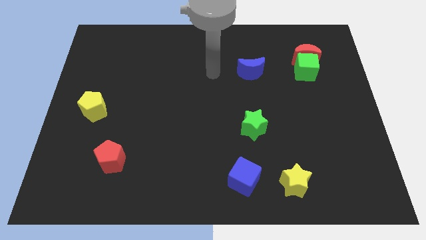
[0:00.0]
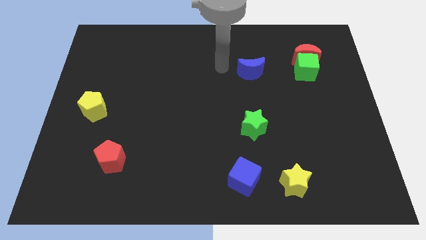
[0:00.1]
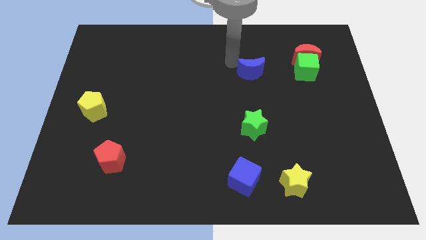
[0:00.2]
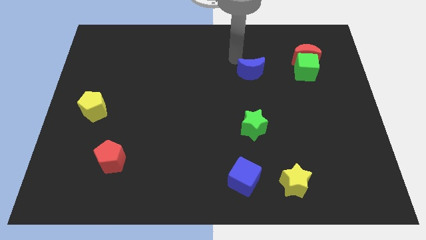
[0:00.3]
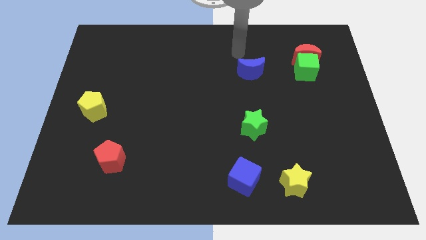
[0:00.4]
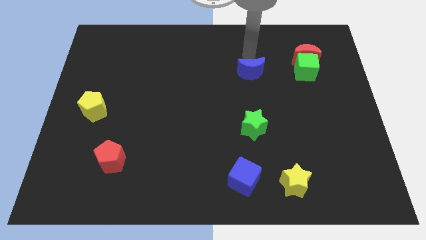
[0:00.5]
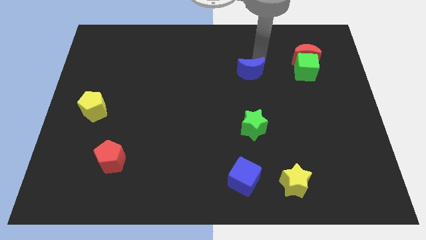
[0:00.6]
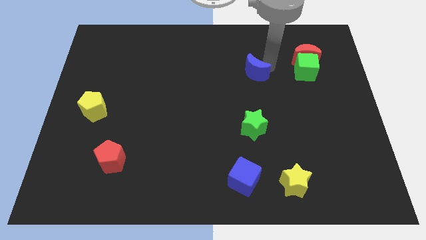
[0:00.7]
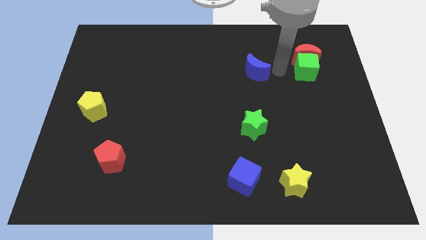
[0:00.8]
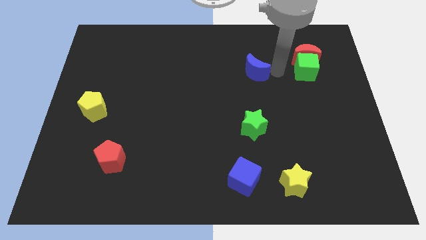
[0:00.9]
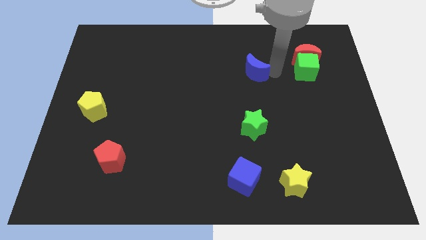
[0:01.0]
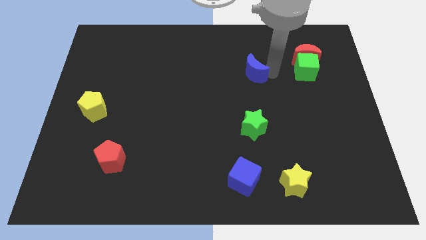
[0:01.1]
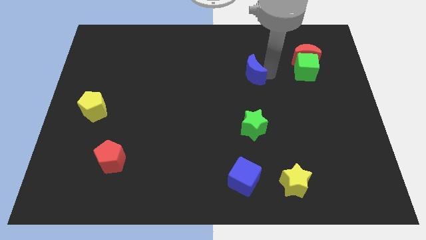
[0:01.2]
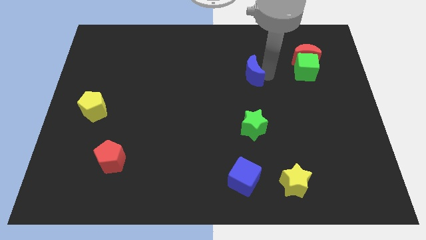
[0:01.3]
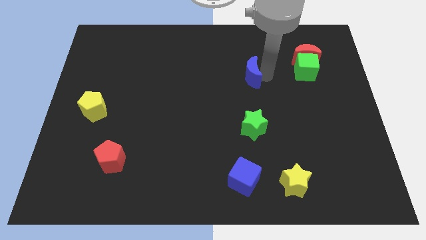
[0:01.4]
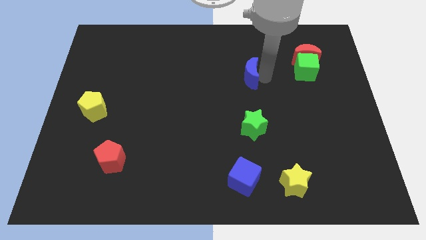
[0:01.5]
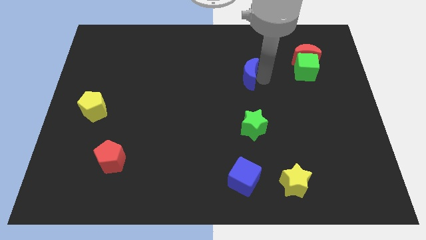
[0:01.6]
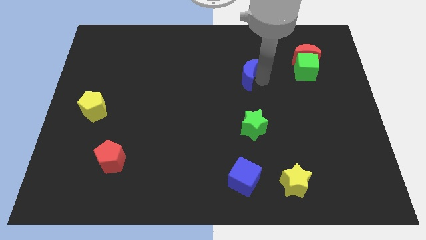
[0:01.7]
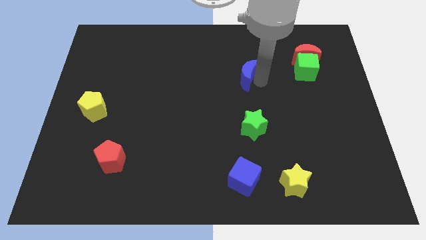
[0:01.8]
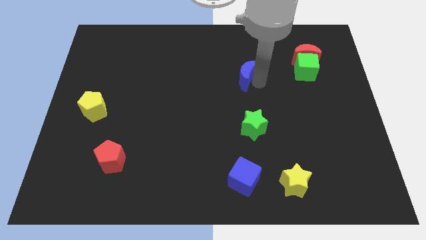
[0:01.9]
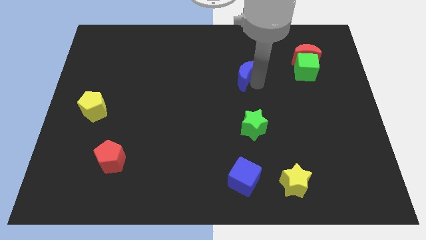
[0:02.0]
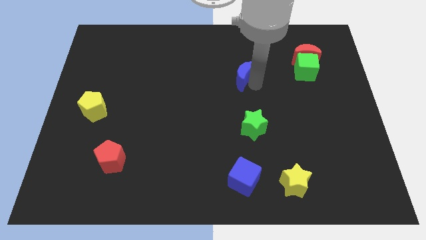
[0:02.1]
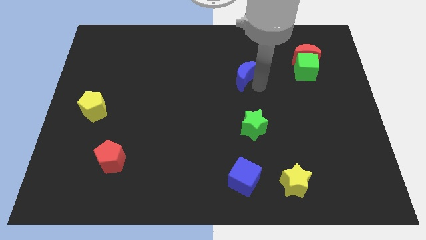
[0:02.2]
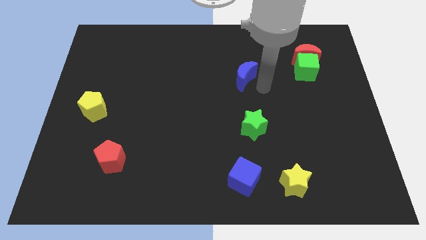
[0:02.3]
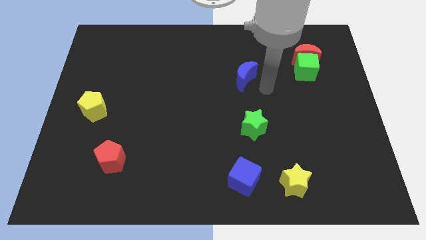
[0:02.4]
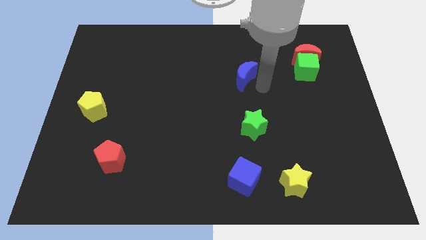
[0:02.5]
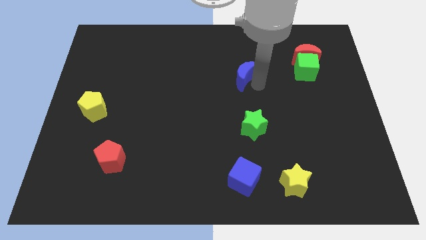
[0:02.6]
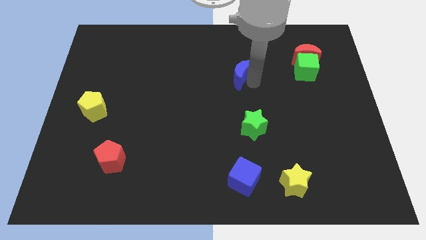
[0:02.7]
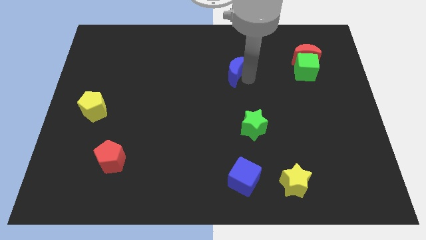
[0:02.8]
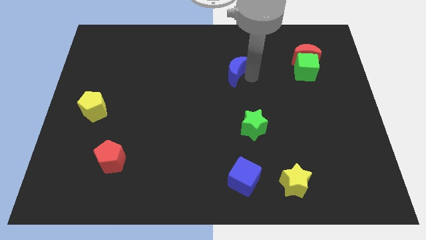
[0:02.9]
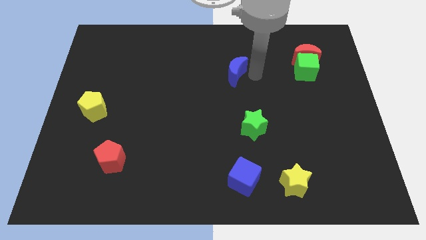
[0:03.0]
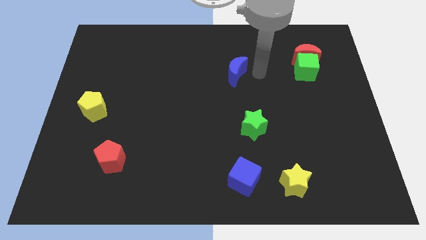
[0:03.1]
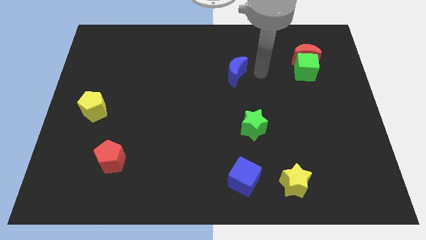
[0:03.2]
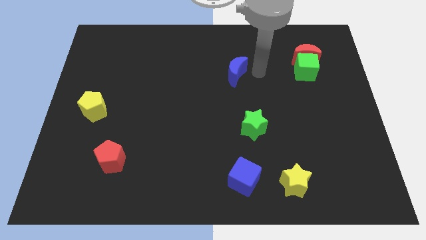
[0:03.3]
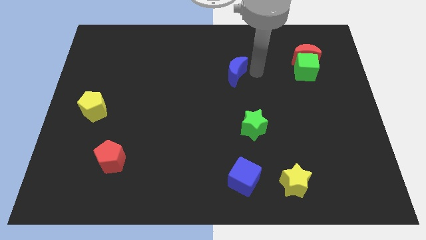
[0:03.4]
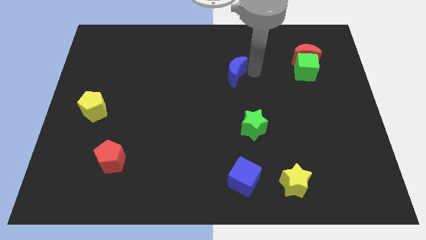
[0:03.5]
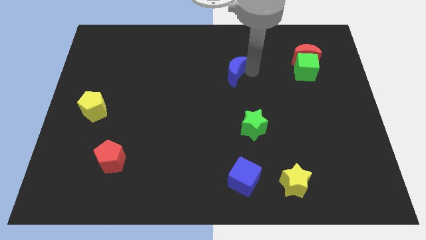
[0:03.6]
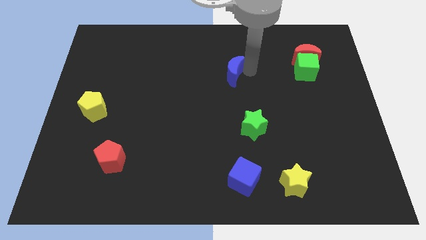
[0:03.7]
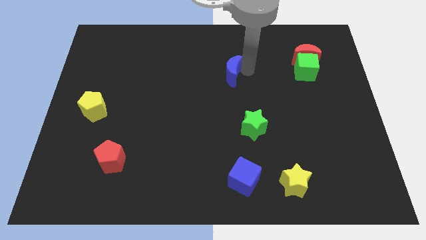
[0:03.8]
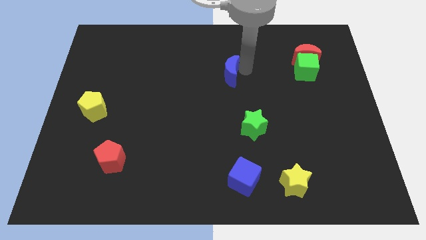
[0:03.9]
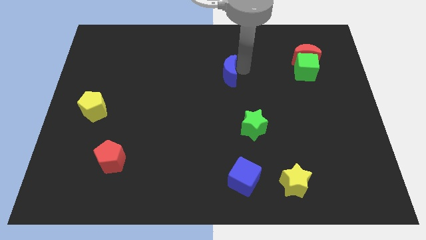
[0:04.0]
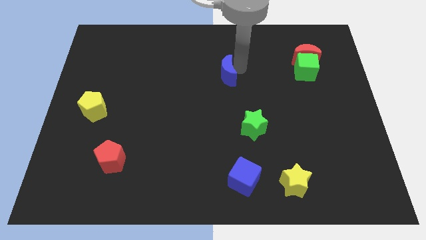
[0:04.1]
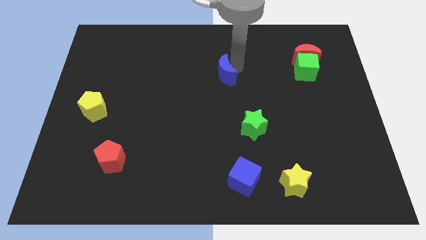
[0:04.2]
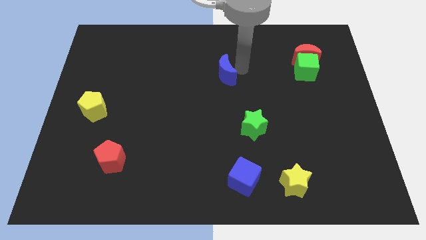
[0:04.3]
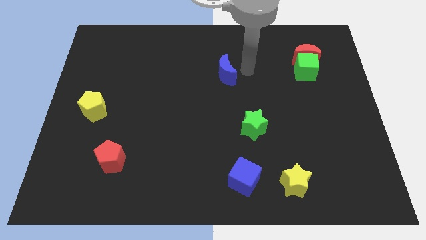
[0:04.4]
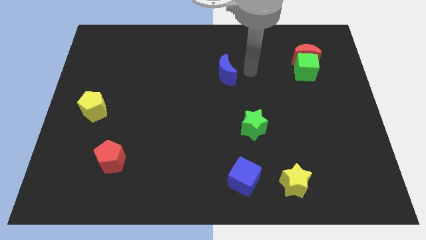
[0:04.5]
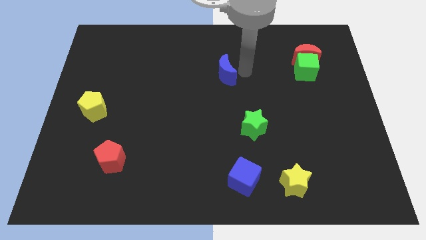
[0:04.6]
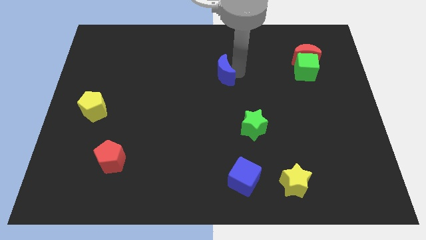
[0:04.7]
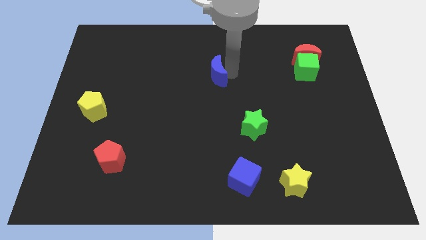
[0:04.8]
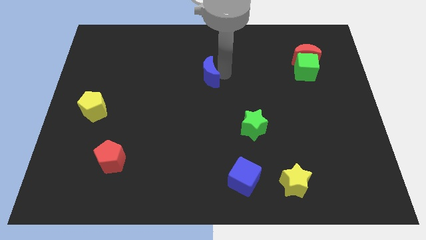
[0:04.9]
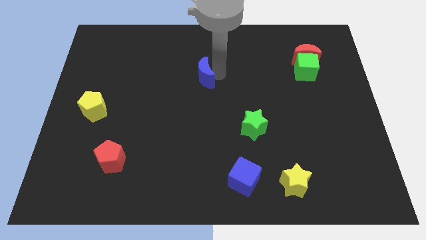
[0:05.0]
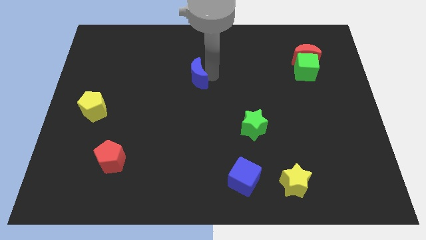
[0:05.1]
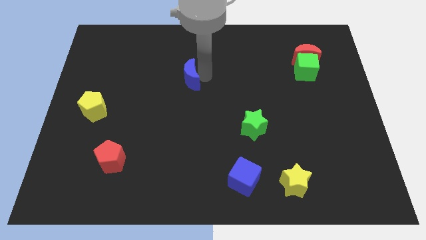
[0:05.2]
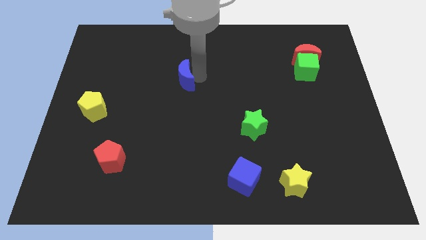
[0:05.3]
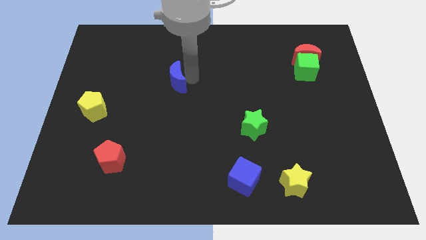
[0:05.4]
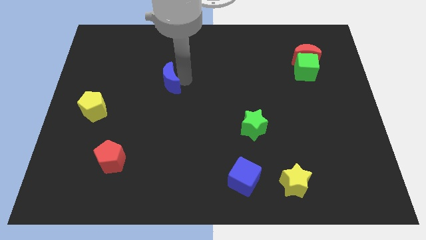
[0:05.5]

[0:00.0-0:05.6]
move the blue moon to the left

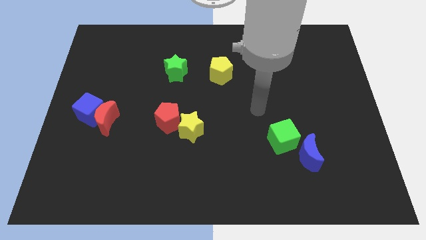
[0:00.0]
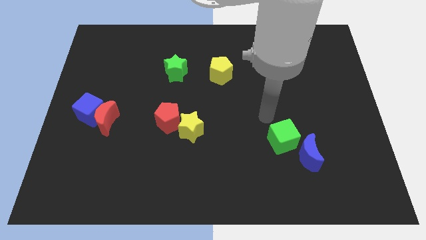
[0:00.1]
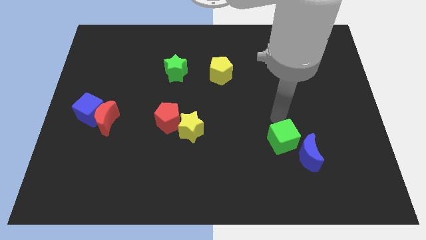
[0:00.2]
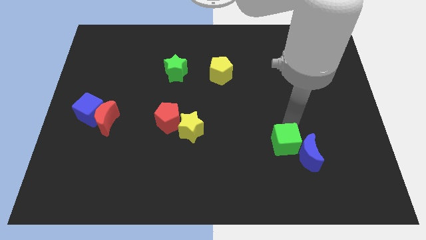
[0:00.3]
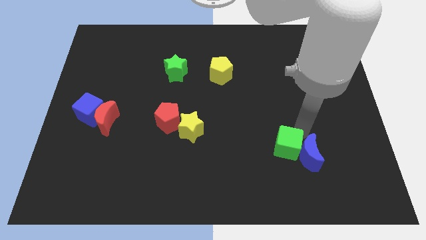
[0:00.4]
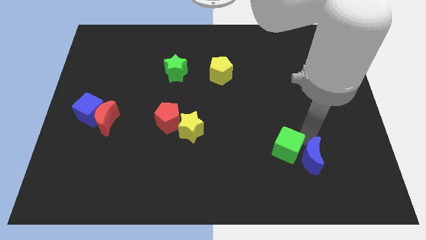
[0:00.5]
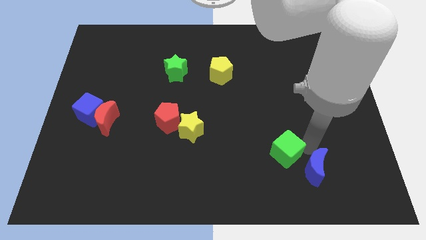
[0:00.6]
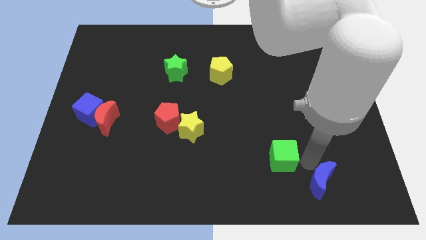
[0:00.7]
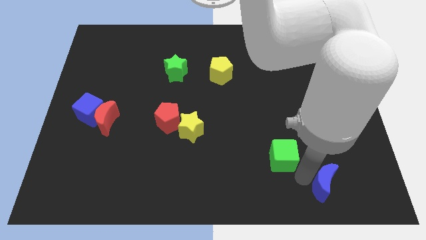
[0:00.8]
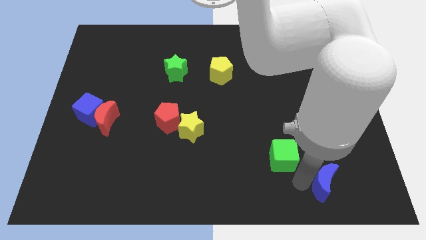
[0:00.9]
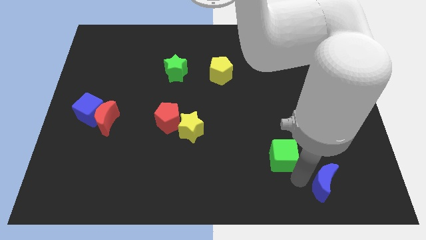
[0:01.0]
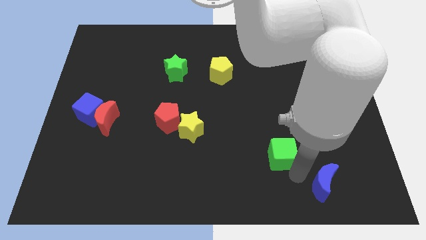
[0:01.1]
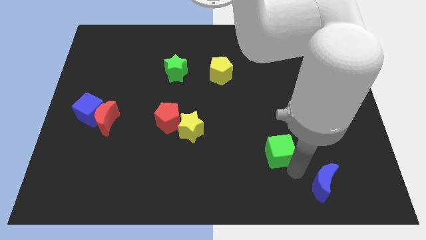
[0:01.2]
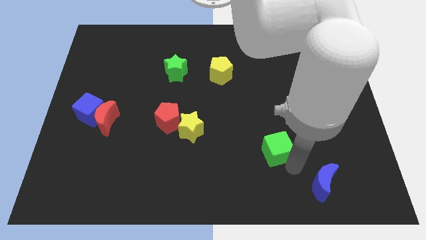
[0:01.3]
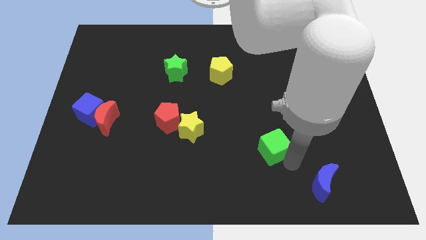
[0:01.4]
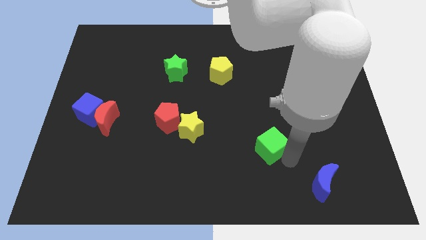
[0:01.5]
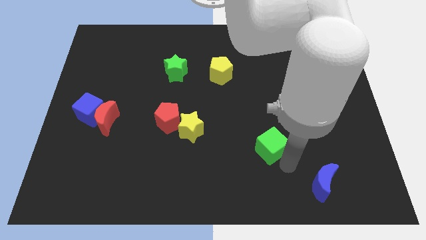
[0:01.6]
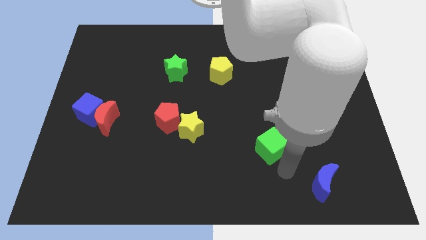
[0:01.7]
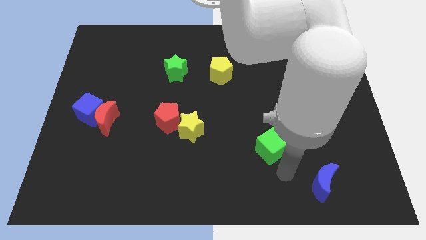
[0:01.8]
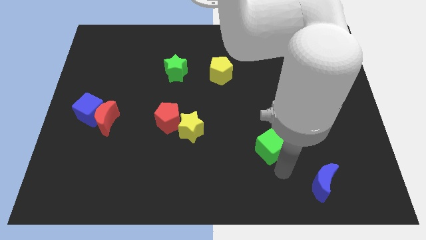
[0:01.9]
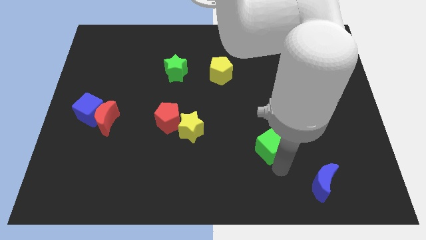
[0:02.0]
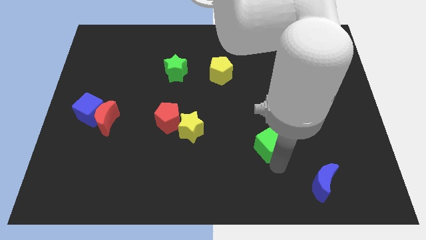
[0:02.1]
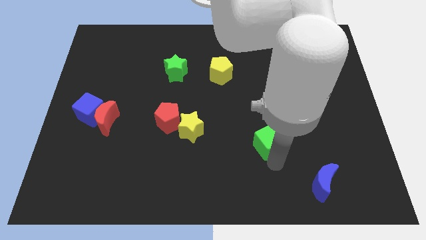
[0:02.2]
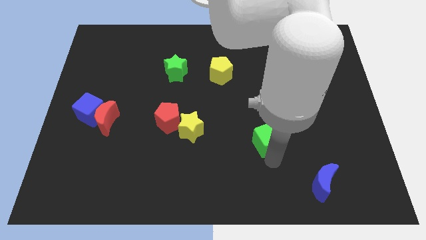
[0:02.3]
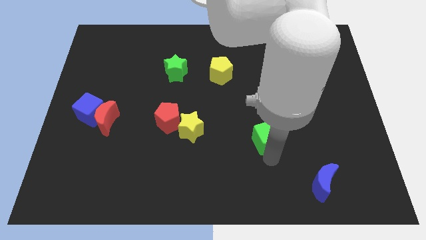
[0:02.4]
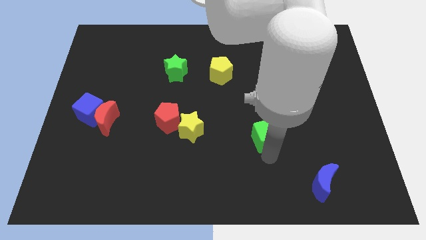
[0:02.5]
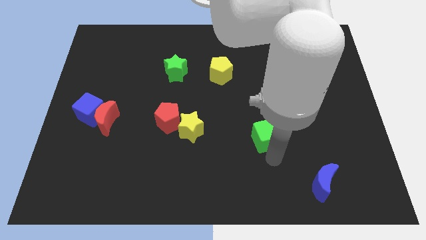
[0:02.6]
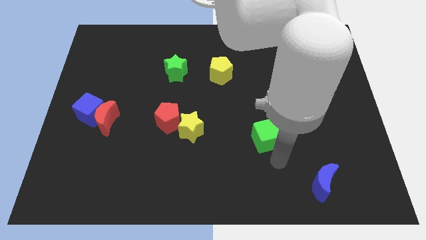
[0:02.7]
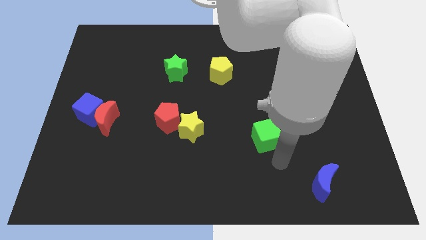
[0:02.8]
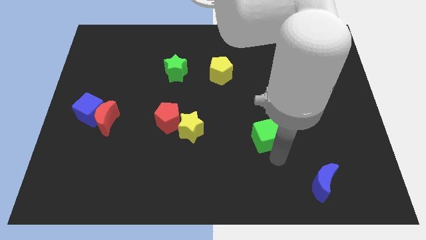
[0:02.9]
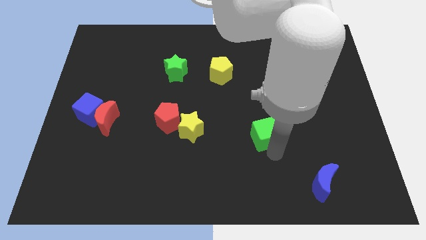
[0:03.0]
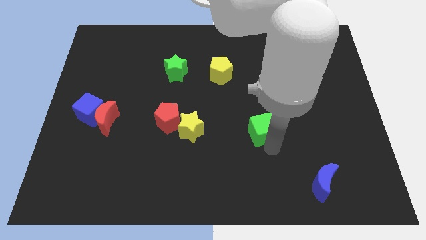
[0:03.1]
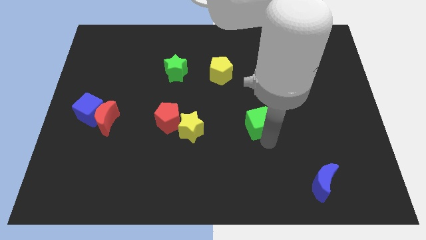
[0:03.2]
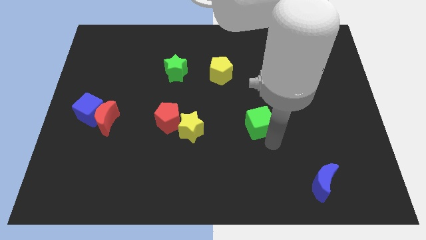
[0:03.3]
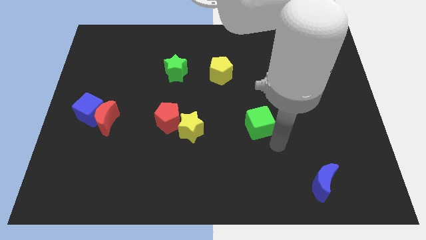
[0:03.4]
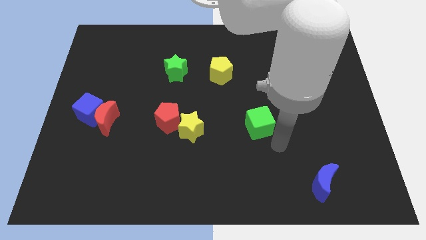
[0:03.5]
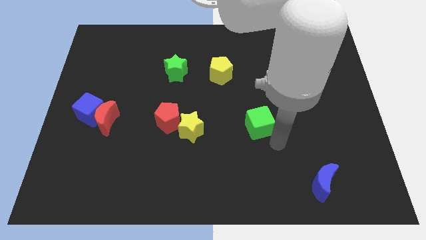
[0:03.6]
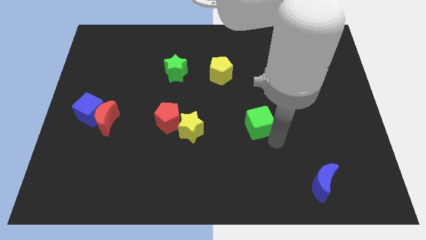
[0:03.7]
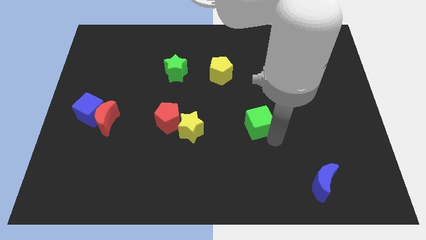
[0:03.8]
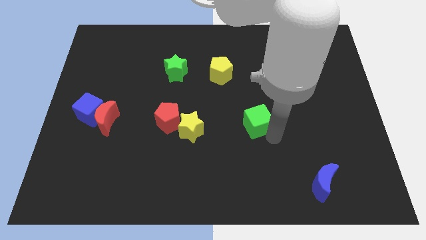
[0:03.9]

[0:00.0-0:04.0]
slide the green cube upwards and to the left diagonally a little bit
